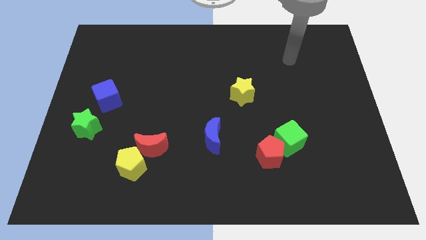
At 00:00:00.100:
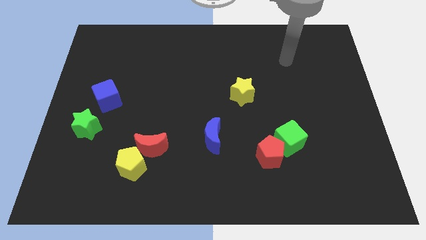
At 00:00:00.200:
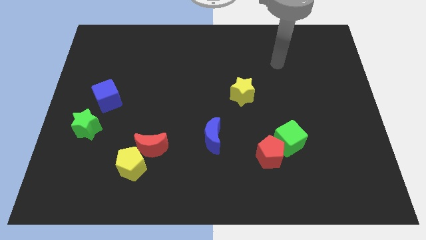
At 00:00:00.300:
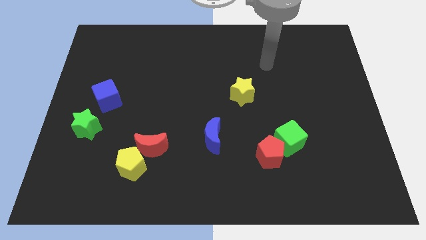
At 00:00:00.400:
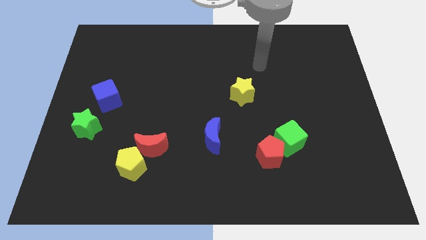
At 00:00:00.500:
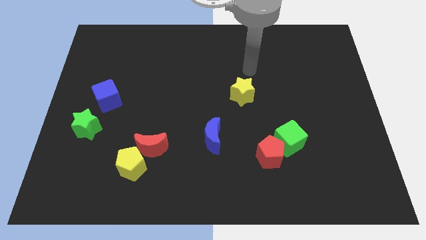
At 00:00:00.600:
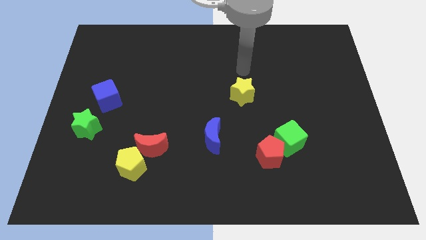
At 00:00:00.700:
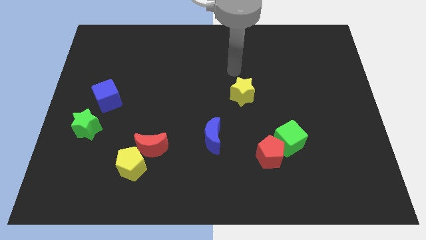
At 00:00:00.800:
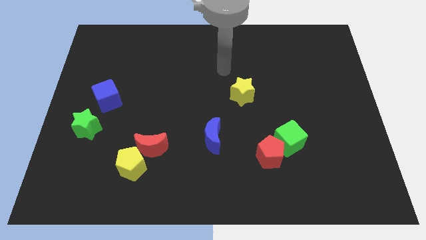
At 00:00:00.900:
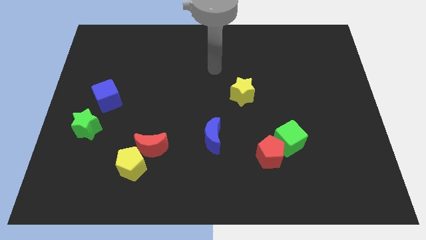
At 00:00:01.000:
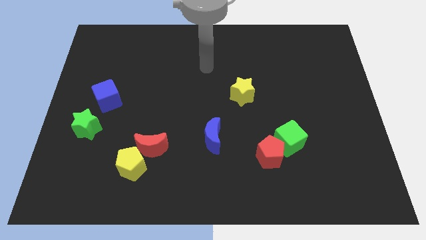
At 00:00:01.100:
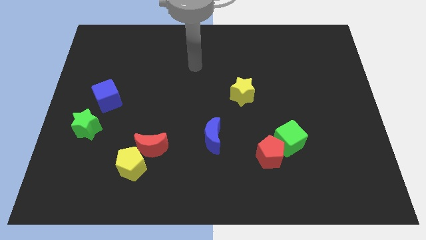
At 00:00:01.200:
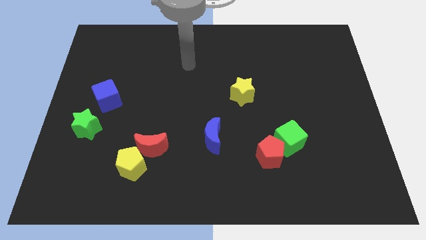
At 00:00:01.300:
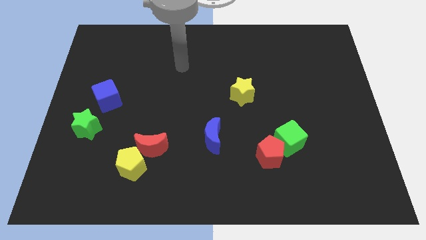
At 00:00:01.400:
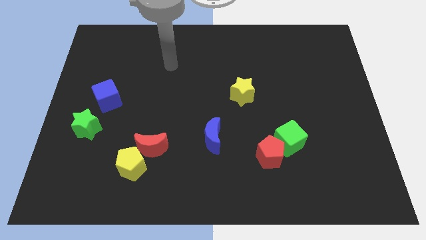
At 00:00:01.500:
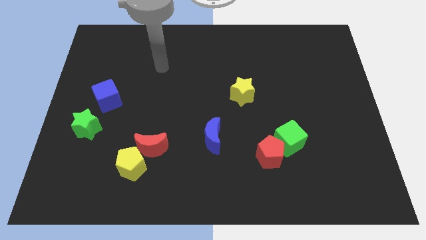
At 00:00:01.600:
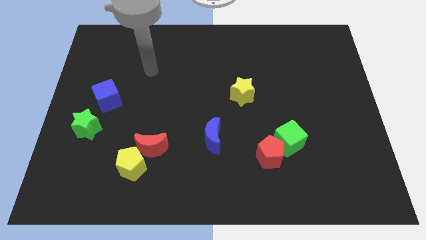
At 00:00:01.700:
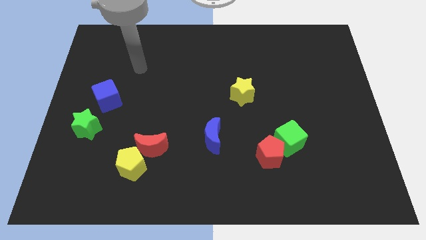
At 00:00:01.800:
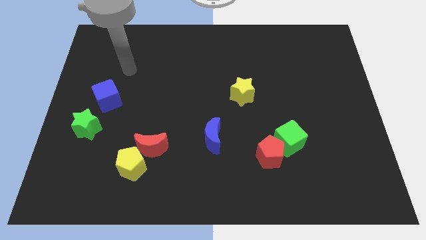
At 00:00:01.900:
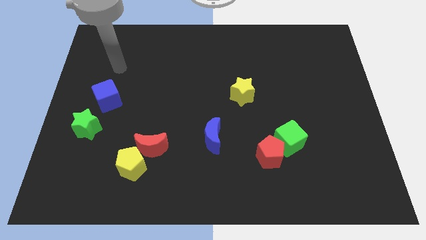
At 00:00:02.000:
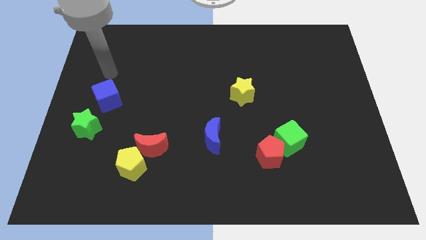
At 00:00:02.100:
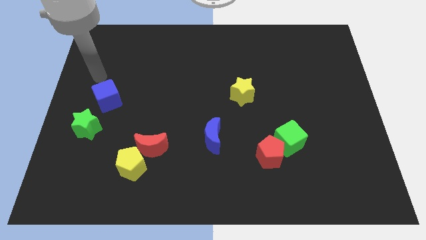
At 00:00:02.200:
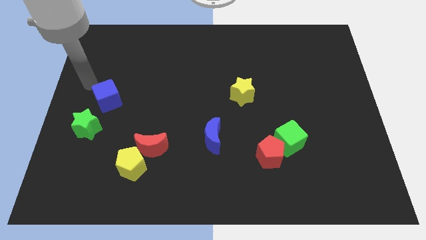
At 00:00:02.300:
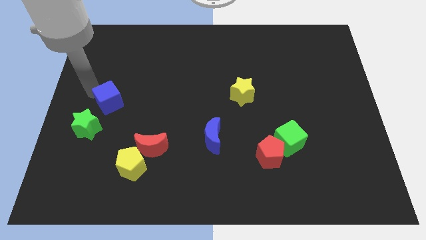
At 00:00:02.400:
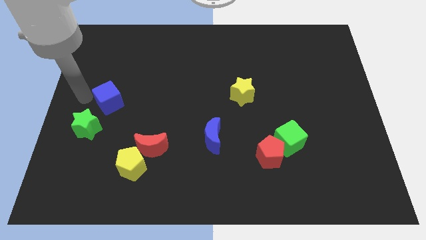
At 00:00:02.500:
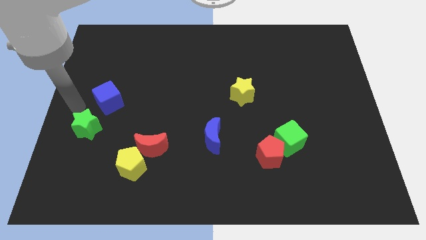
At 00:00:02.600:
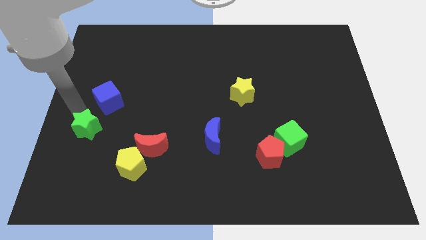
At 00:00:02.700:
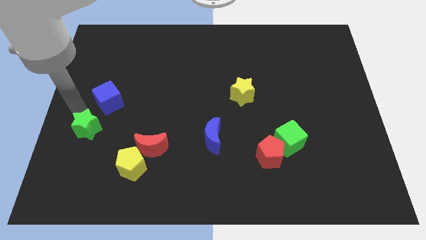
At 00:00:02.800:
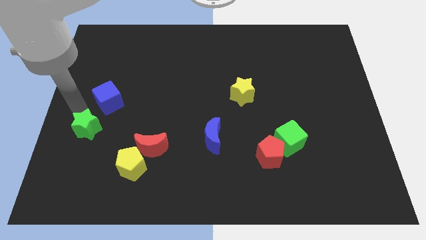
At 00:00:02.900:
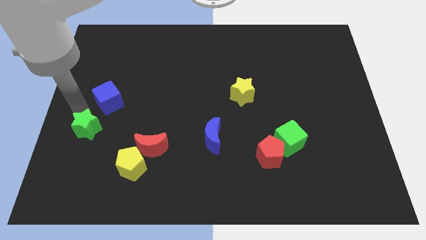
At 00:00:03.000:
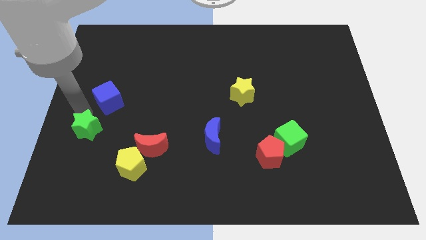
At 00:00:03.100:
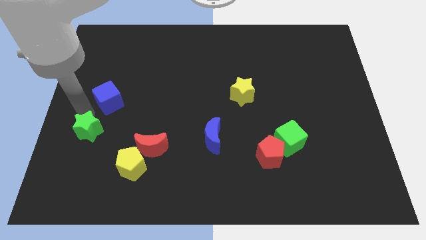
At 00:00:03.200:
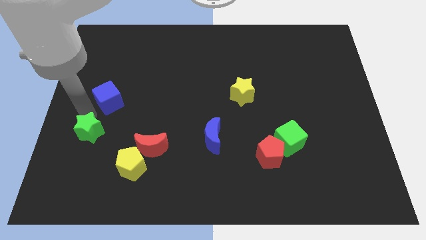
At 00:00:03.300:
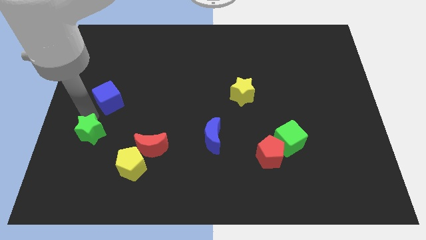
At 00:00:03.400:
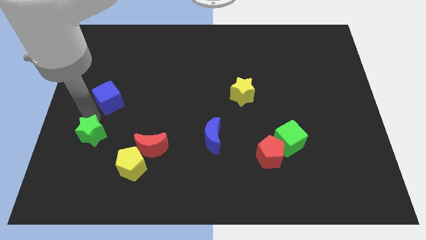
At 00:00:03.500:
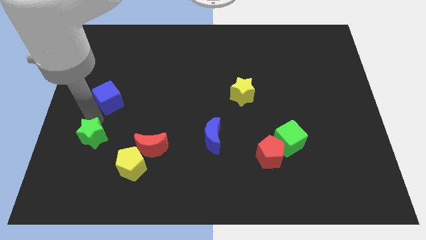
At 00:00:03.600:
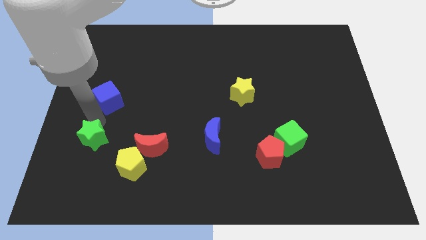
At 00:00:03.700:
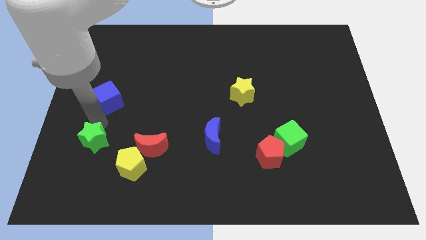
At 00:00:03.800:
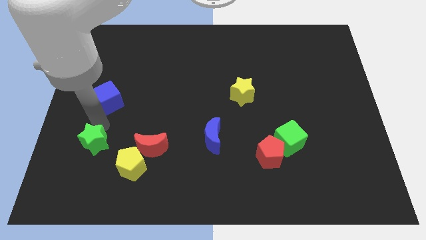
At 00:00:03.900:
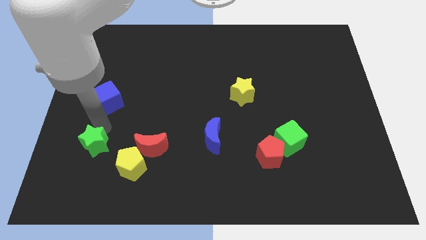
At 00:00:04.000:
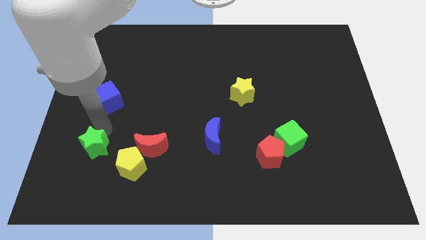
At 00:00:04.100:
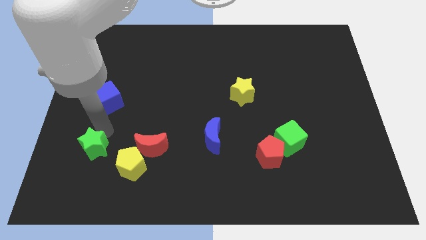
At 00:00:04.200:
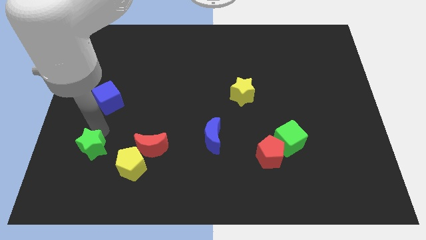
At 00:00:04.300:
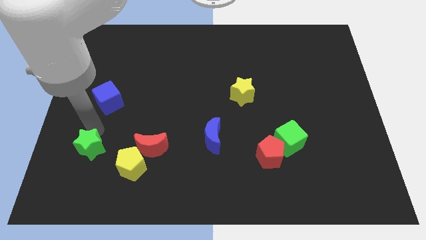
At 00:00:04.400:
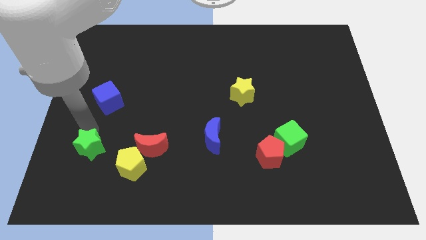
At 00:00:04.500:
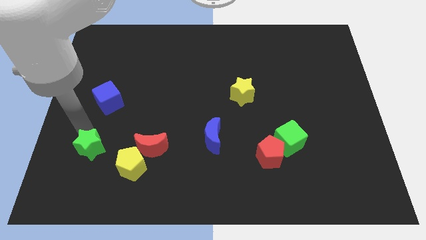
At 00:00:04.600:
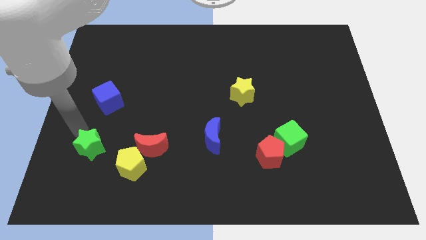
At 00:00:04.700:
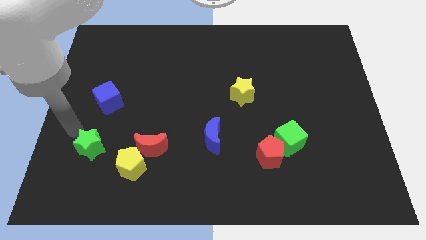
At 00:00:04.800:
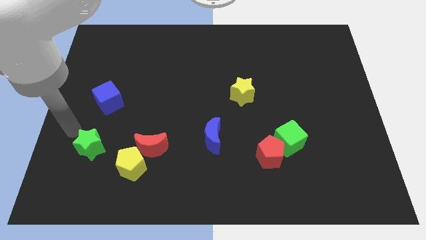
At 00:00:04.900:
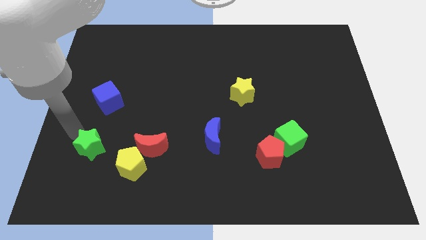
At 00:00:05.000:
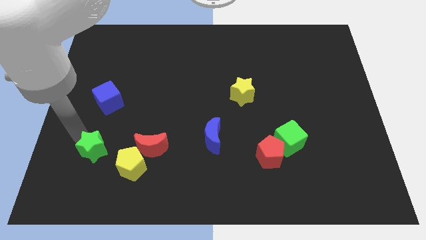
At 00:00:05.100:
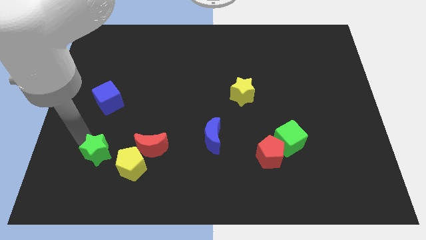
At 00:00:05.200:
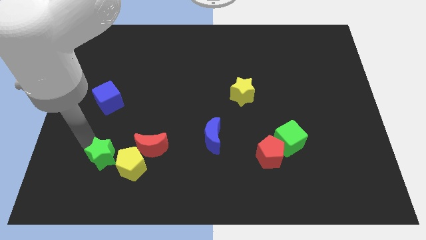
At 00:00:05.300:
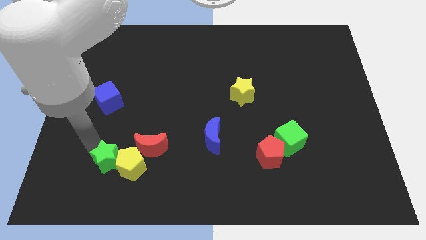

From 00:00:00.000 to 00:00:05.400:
slide the green star to the bottom left side of the red moon

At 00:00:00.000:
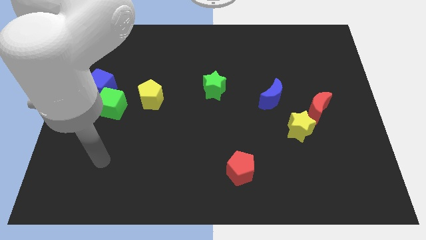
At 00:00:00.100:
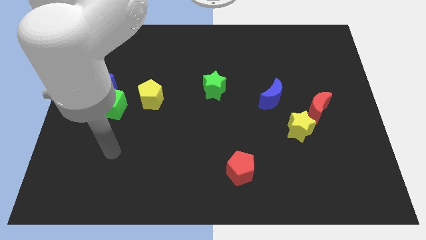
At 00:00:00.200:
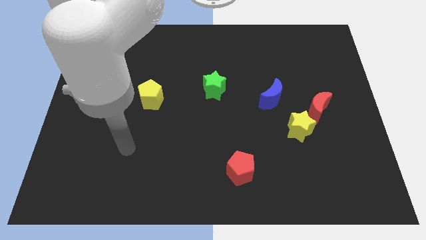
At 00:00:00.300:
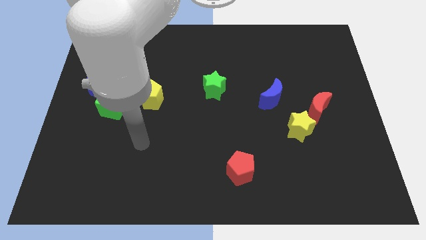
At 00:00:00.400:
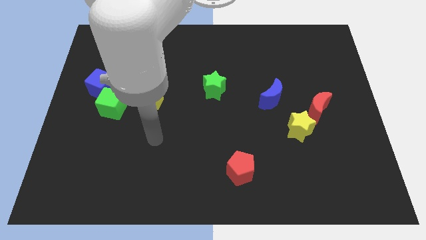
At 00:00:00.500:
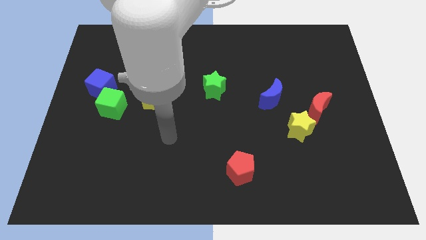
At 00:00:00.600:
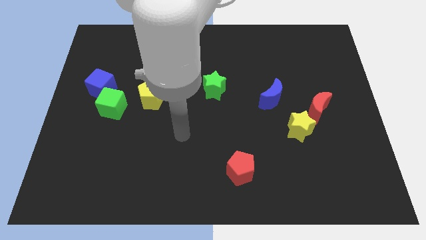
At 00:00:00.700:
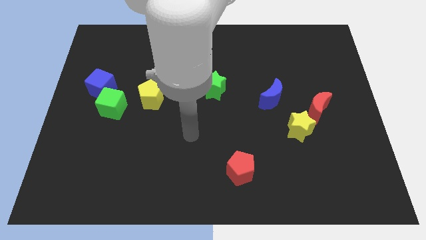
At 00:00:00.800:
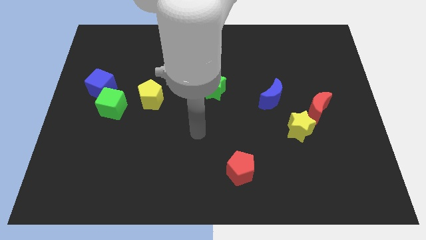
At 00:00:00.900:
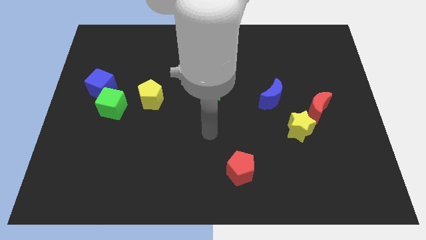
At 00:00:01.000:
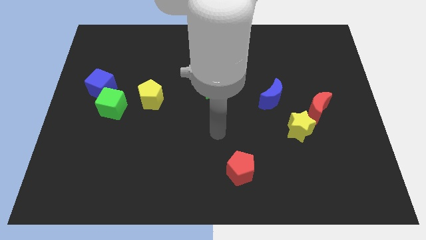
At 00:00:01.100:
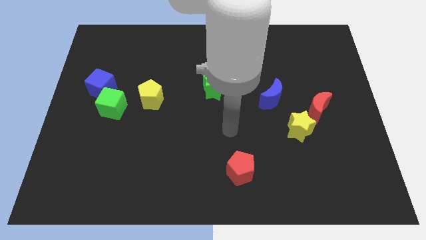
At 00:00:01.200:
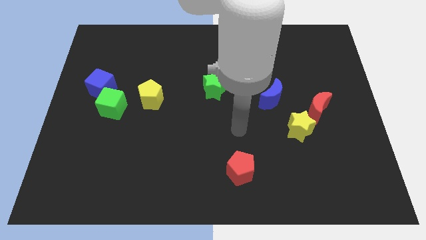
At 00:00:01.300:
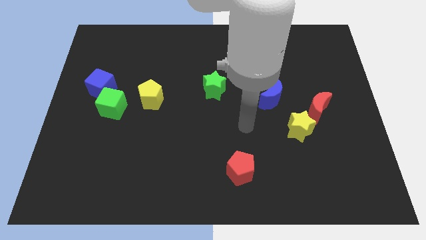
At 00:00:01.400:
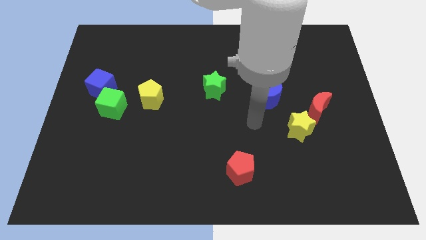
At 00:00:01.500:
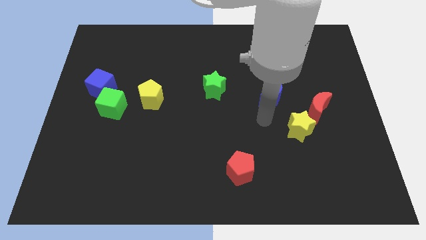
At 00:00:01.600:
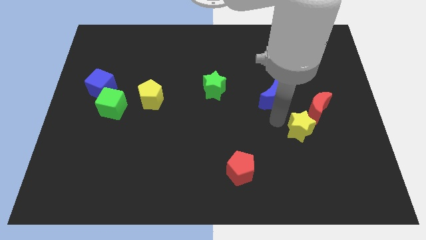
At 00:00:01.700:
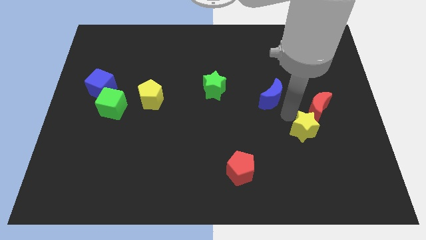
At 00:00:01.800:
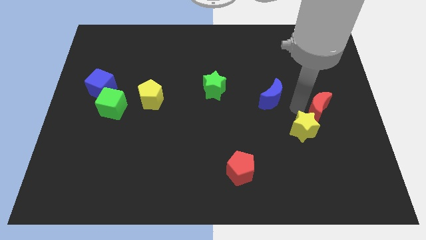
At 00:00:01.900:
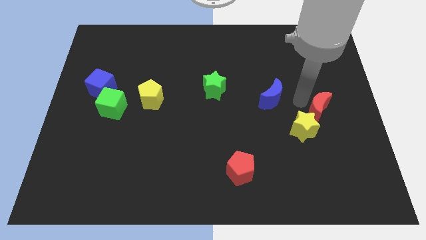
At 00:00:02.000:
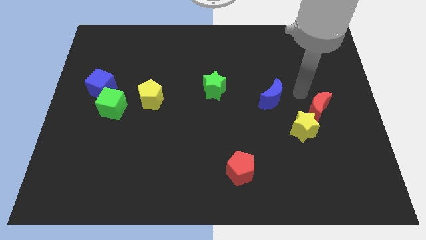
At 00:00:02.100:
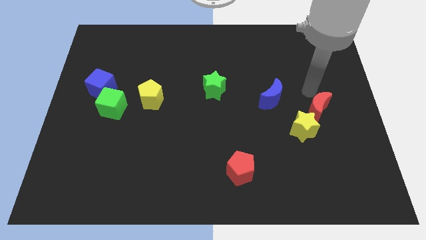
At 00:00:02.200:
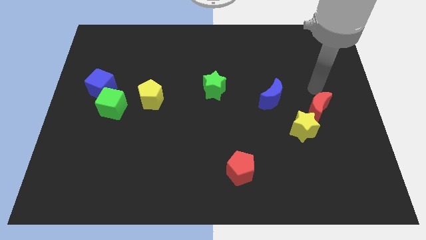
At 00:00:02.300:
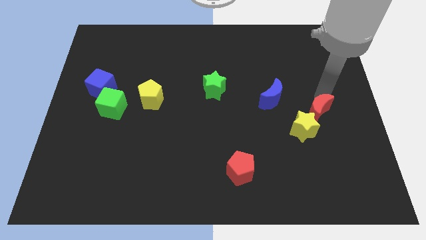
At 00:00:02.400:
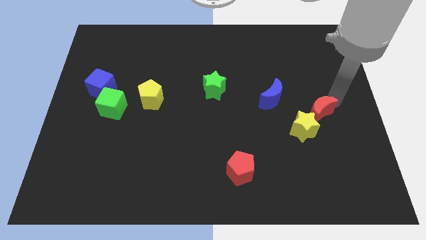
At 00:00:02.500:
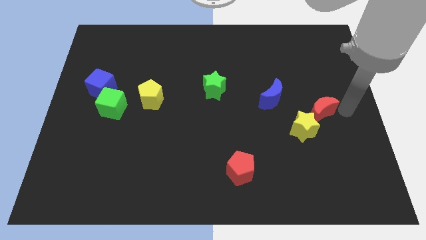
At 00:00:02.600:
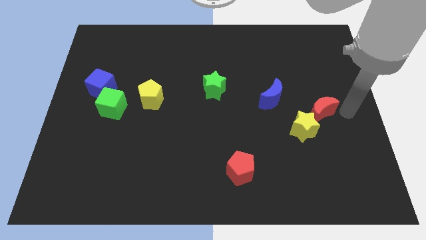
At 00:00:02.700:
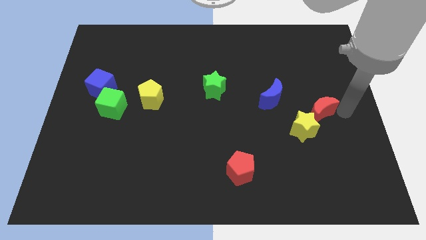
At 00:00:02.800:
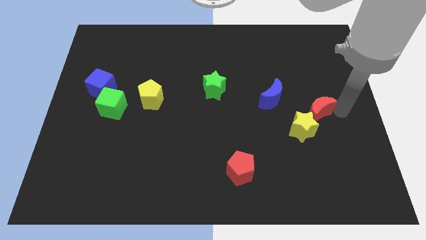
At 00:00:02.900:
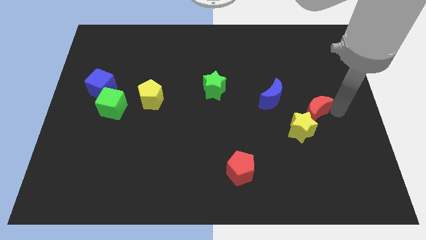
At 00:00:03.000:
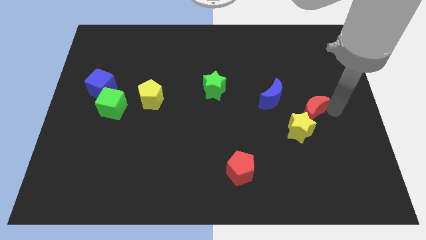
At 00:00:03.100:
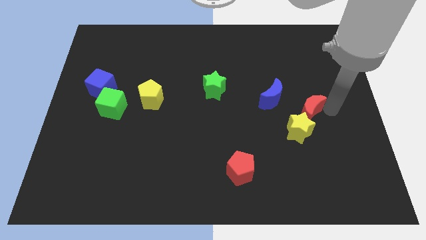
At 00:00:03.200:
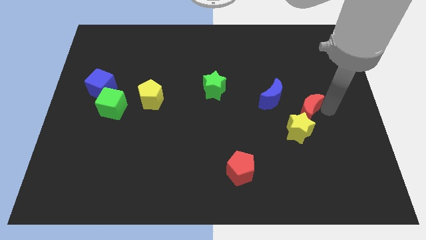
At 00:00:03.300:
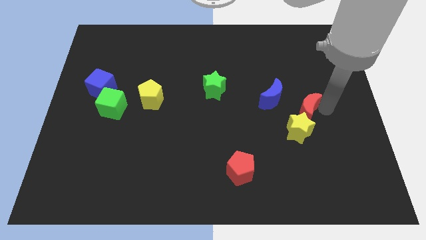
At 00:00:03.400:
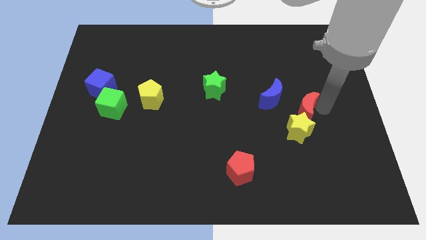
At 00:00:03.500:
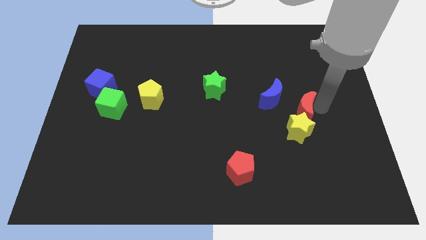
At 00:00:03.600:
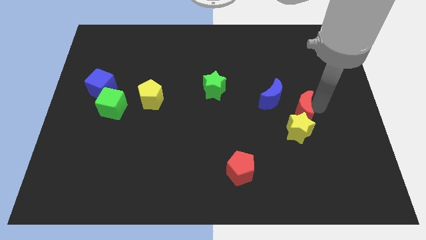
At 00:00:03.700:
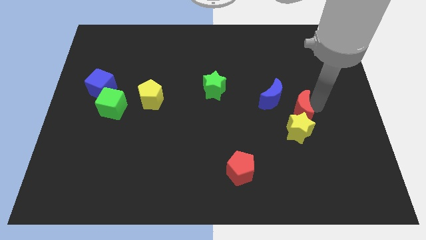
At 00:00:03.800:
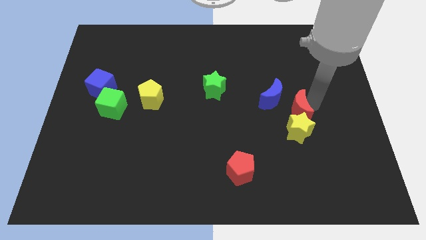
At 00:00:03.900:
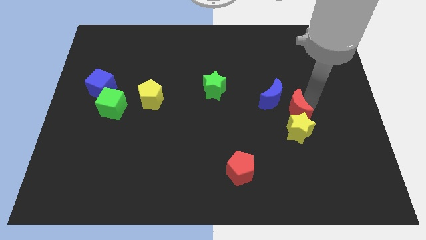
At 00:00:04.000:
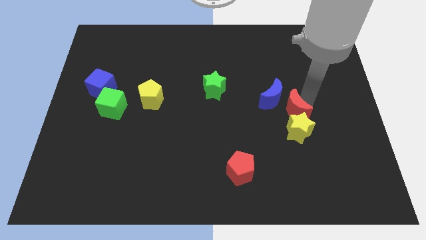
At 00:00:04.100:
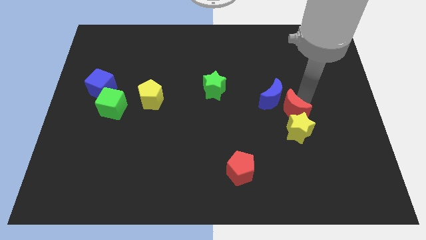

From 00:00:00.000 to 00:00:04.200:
put the red moon to the bottom of the blue moon
